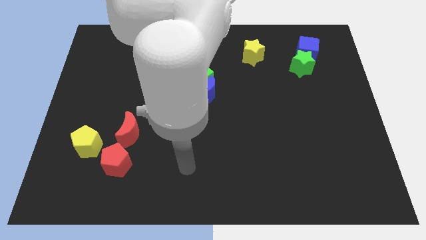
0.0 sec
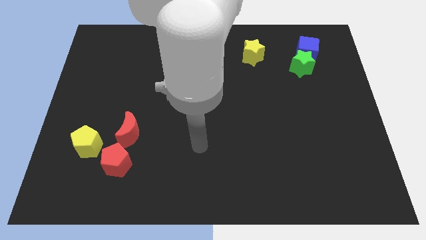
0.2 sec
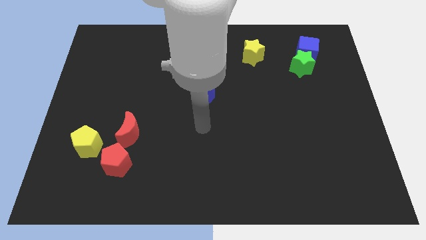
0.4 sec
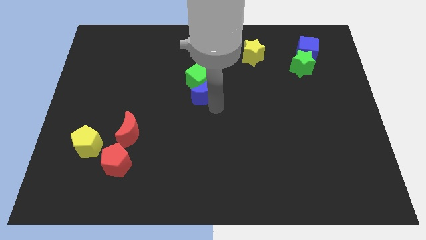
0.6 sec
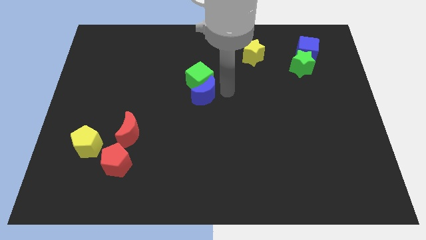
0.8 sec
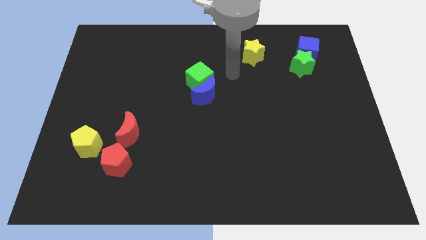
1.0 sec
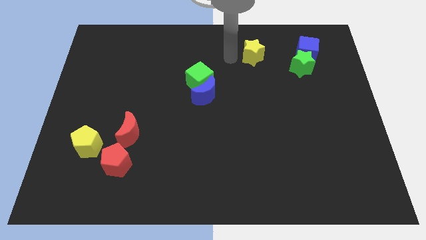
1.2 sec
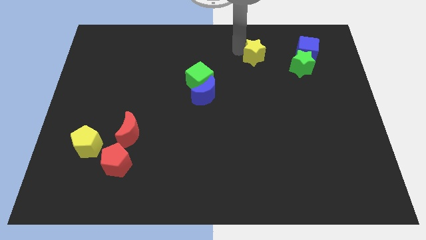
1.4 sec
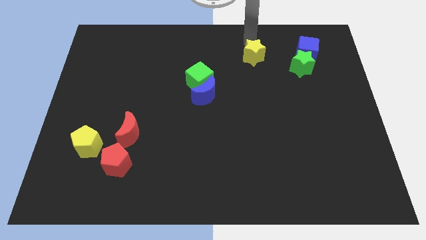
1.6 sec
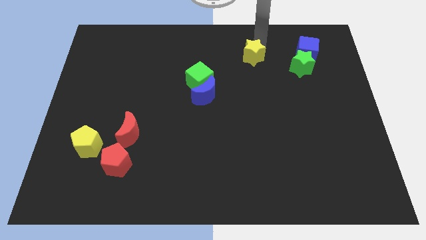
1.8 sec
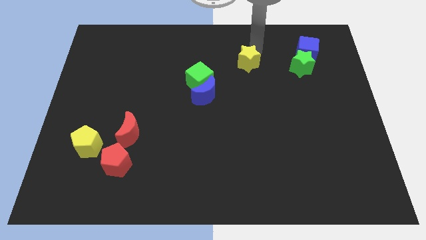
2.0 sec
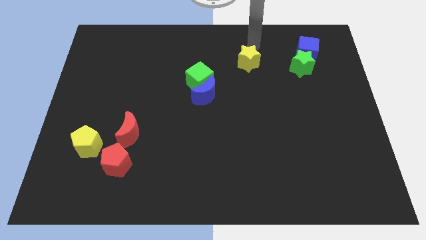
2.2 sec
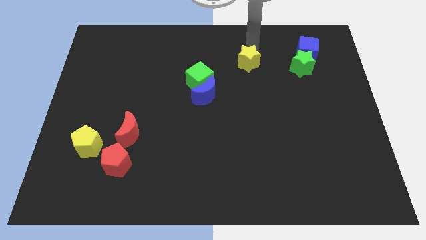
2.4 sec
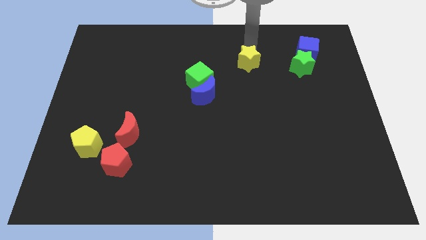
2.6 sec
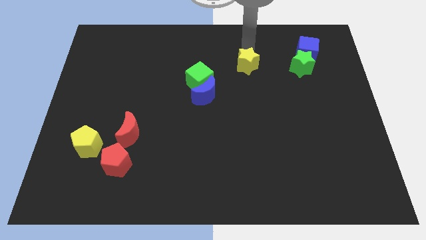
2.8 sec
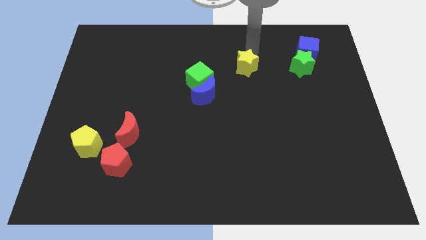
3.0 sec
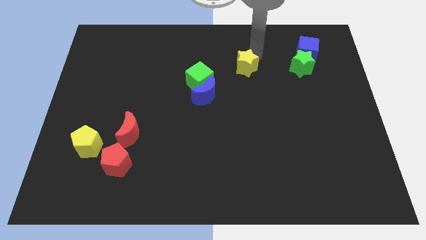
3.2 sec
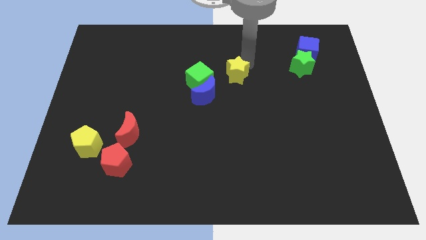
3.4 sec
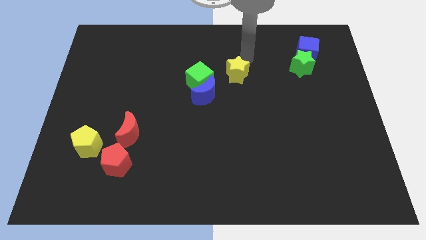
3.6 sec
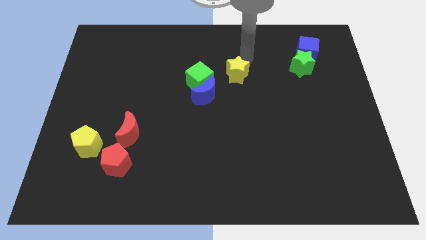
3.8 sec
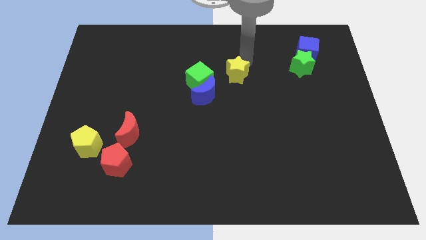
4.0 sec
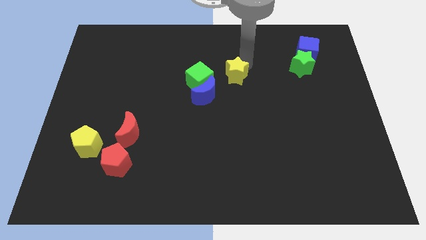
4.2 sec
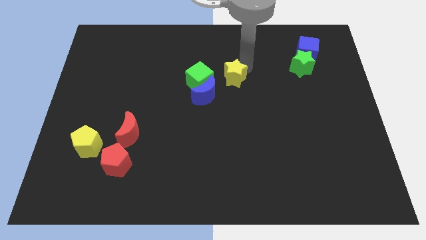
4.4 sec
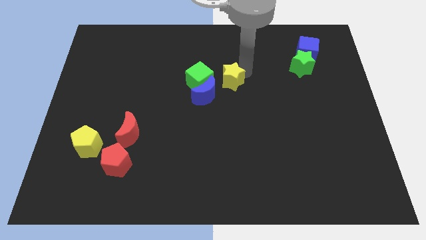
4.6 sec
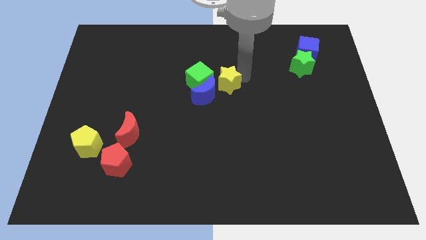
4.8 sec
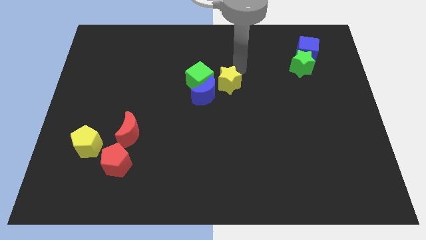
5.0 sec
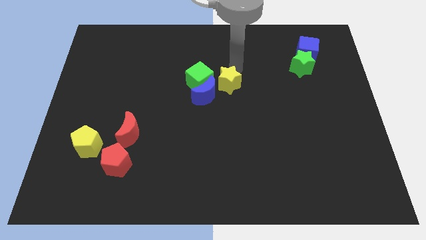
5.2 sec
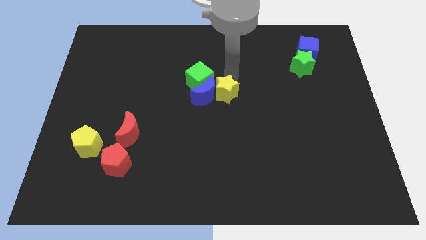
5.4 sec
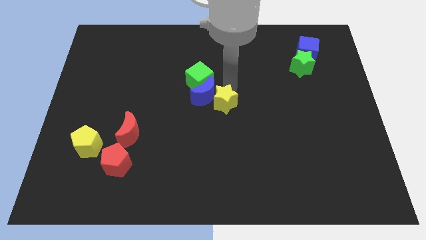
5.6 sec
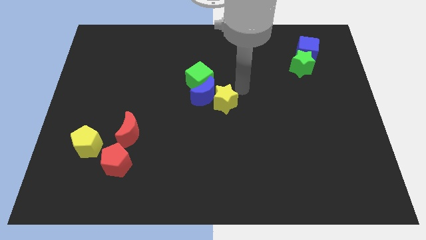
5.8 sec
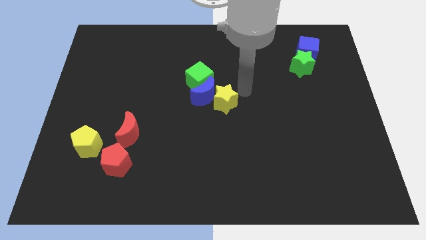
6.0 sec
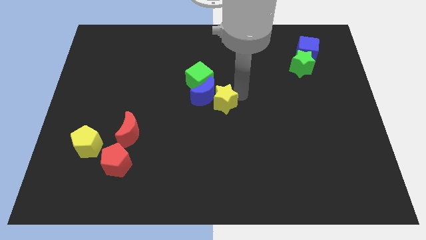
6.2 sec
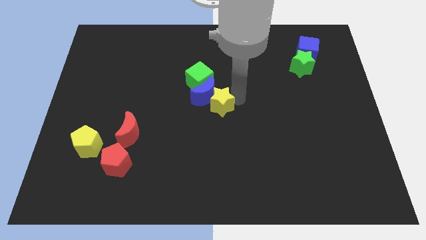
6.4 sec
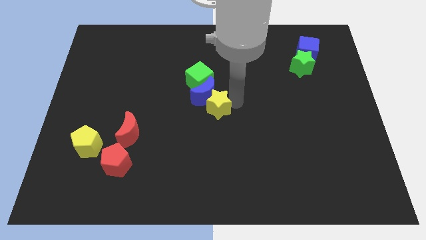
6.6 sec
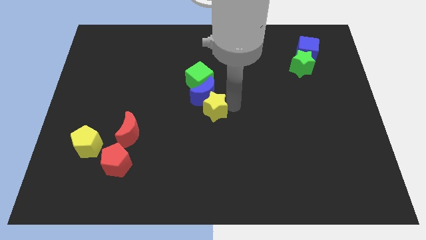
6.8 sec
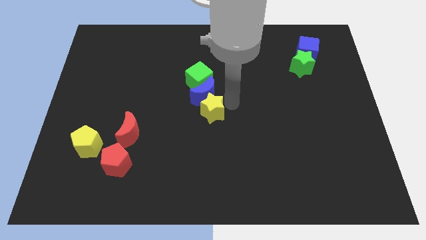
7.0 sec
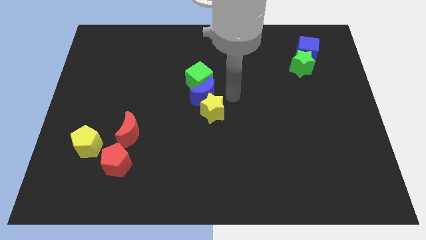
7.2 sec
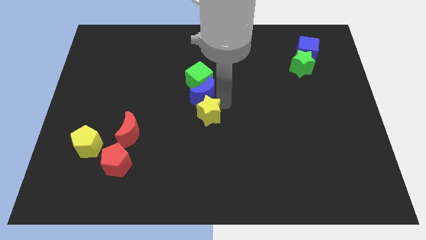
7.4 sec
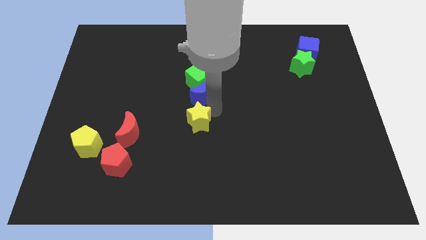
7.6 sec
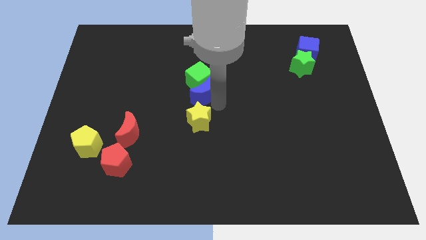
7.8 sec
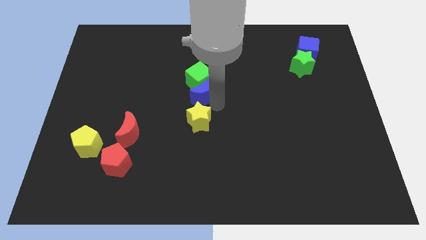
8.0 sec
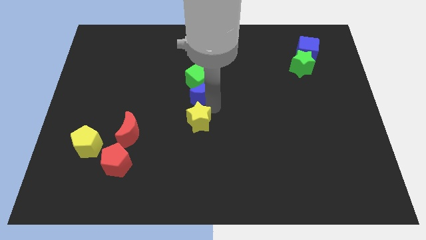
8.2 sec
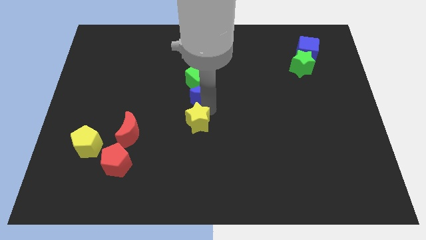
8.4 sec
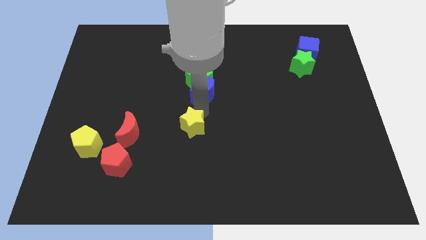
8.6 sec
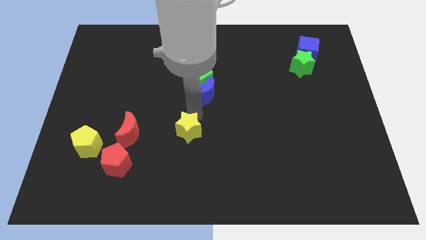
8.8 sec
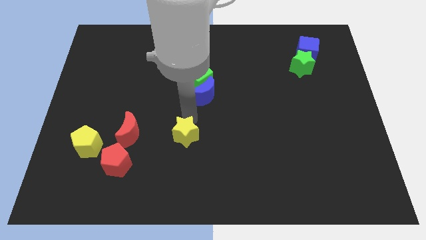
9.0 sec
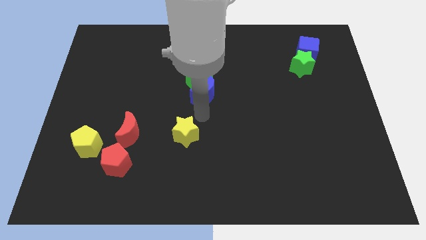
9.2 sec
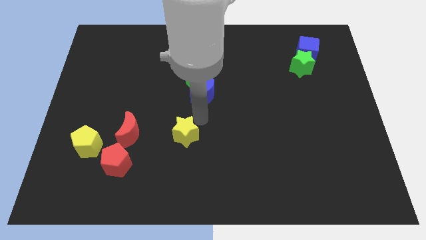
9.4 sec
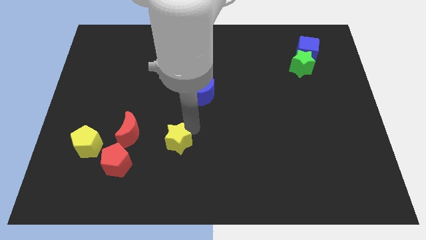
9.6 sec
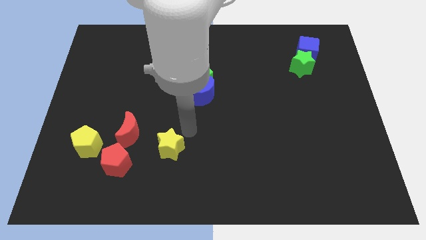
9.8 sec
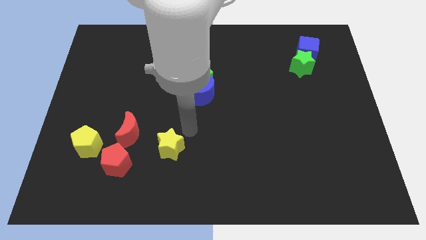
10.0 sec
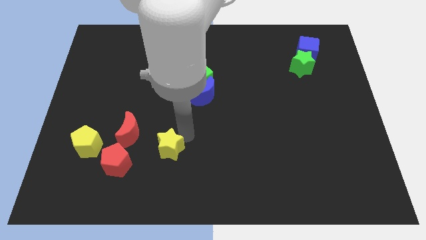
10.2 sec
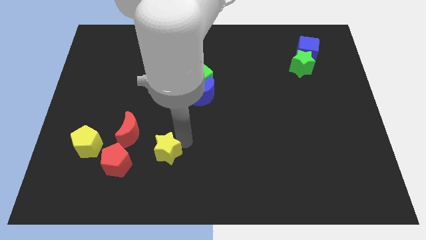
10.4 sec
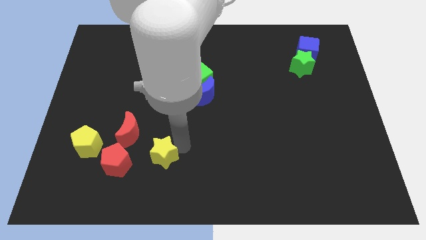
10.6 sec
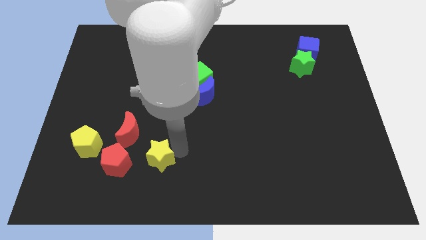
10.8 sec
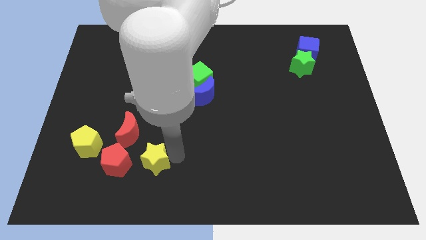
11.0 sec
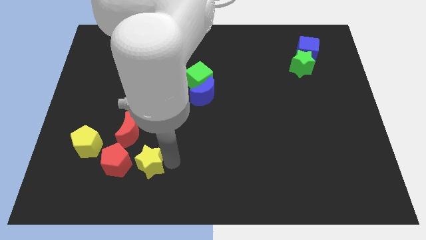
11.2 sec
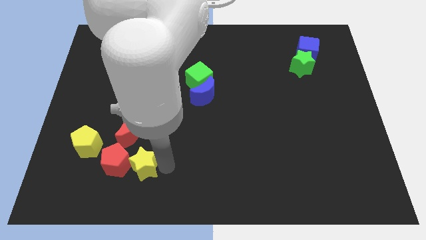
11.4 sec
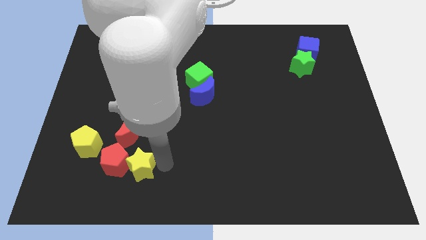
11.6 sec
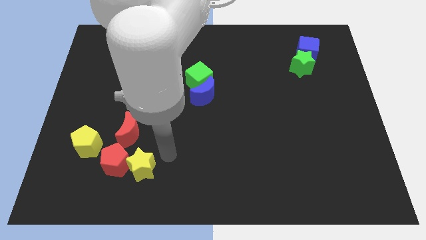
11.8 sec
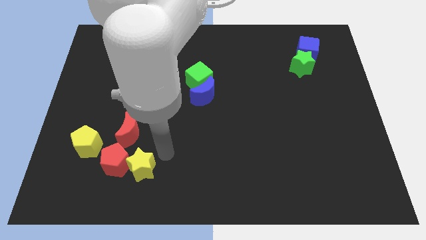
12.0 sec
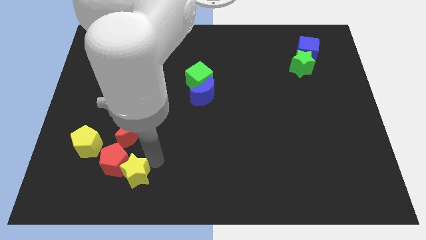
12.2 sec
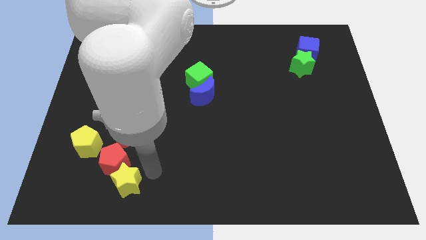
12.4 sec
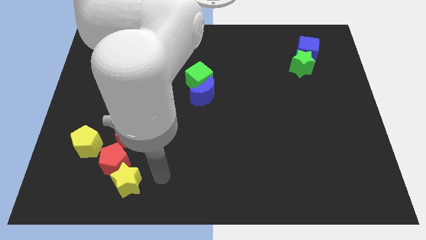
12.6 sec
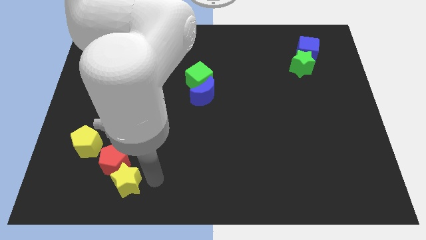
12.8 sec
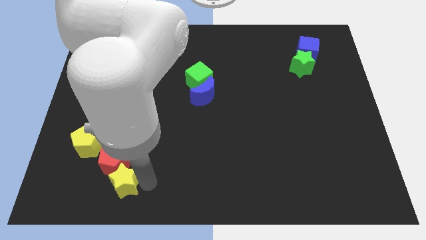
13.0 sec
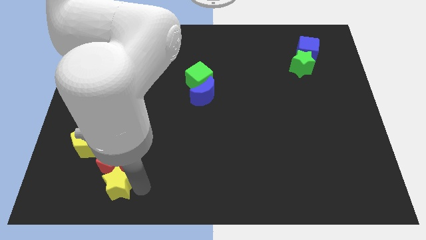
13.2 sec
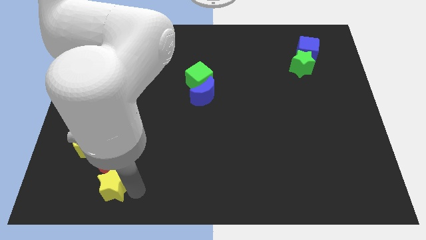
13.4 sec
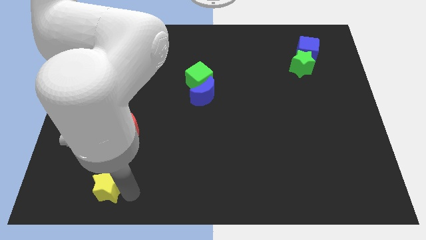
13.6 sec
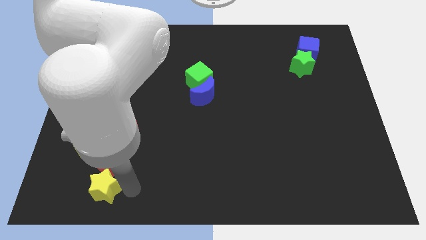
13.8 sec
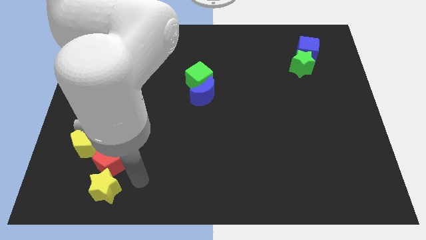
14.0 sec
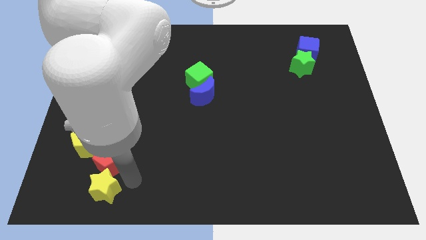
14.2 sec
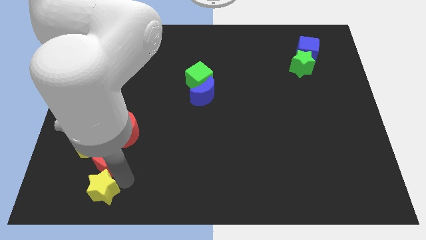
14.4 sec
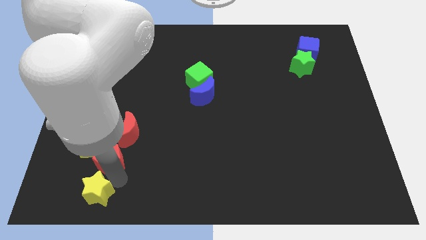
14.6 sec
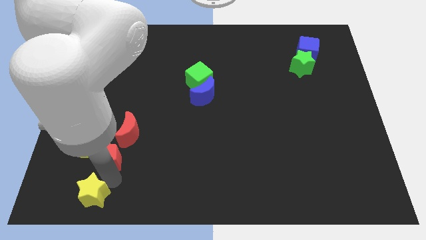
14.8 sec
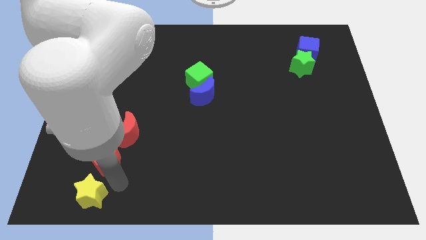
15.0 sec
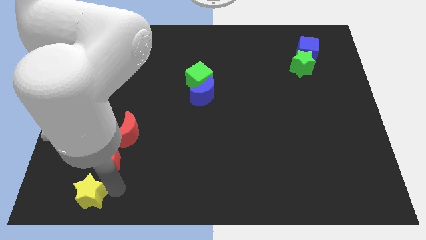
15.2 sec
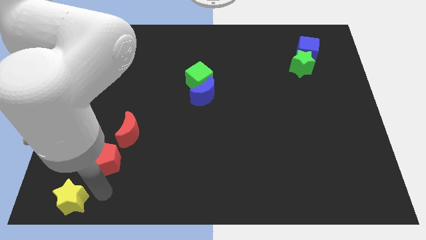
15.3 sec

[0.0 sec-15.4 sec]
slide the yellow star to the bottom left corner
